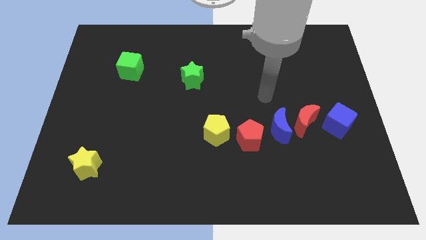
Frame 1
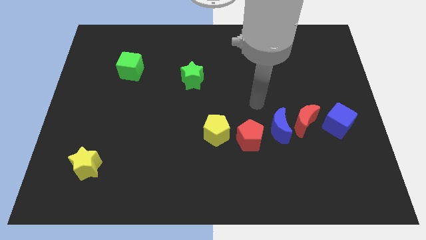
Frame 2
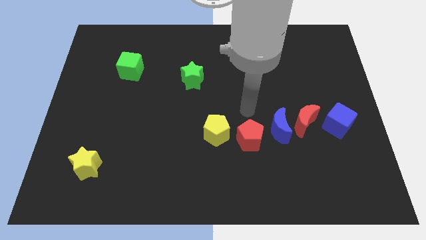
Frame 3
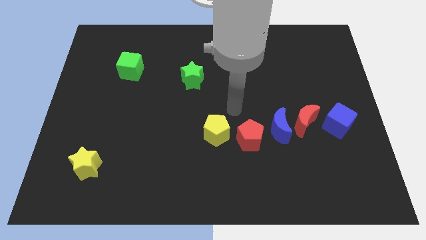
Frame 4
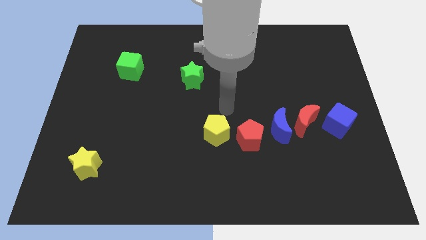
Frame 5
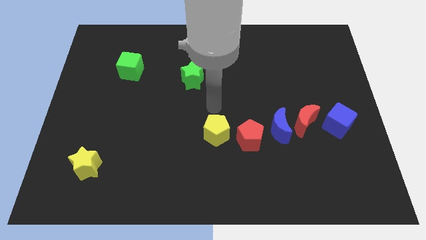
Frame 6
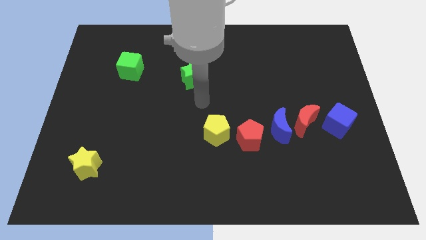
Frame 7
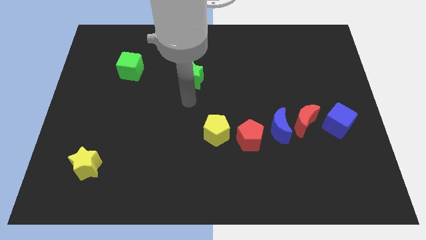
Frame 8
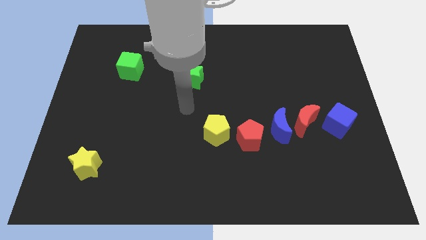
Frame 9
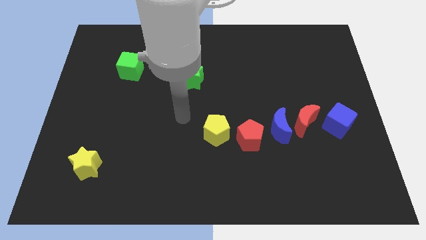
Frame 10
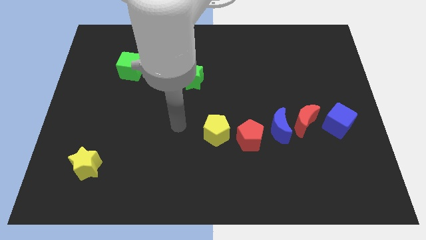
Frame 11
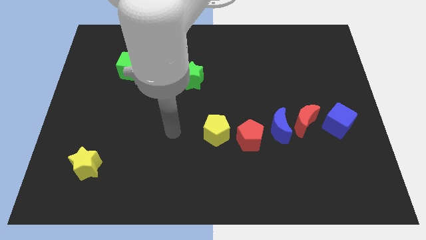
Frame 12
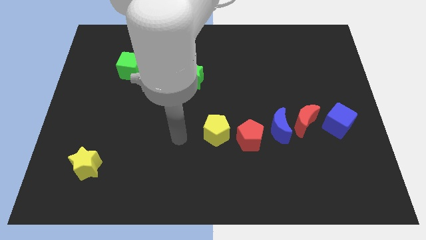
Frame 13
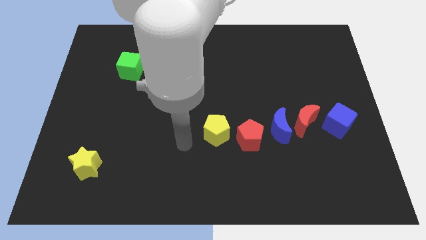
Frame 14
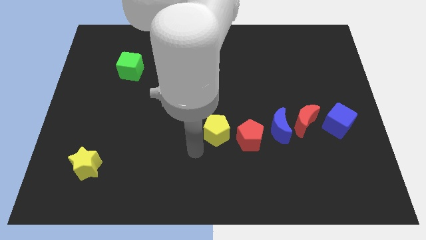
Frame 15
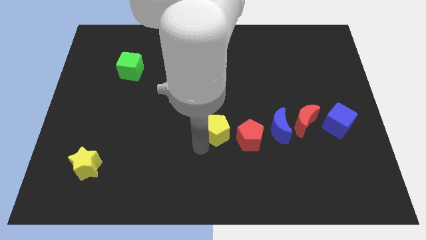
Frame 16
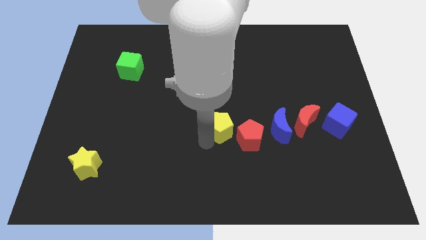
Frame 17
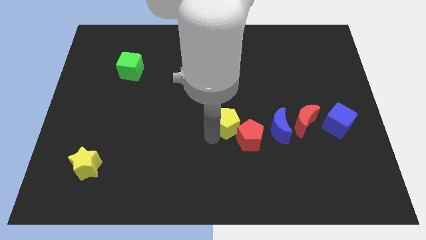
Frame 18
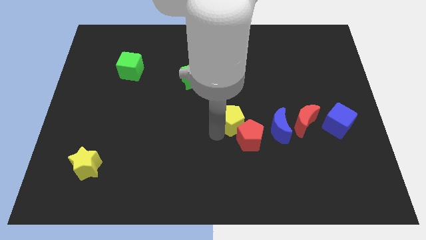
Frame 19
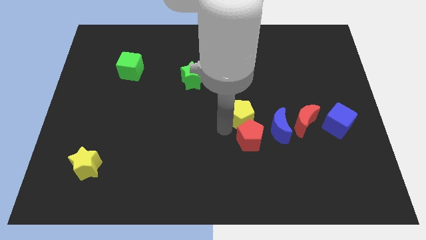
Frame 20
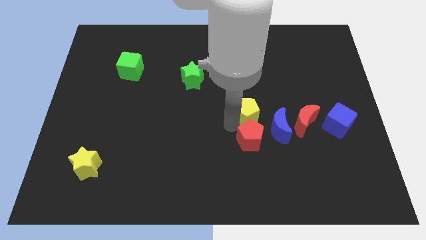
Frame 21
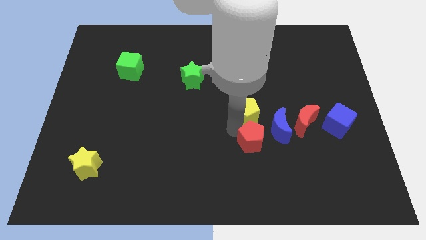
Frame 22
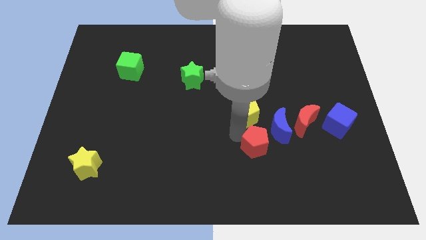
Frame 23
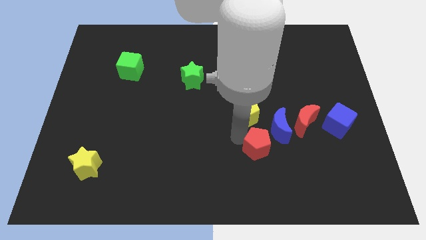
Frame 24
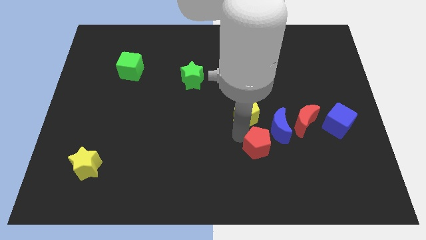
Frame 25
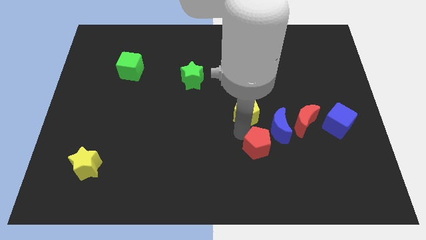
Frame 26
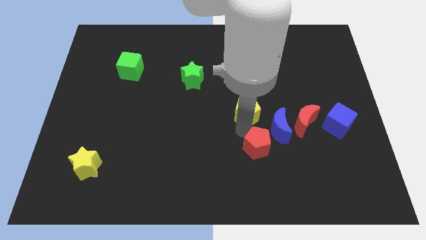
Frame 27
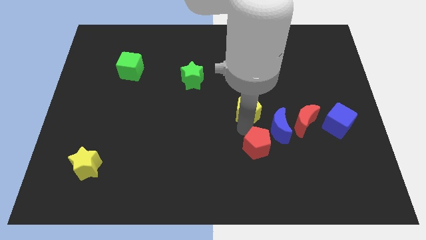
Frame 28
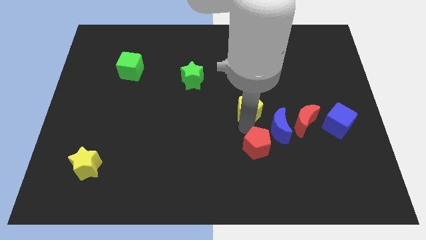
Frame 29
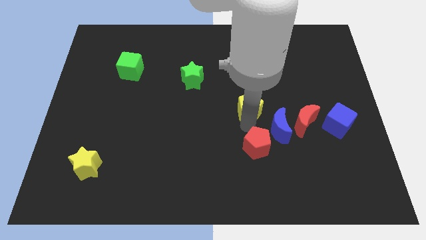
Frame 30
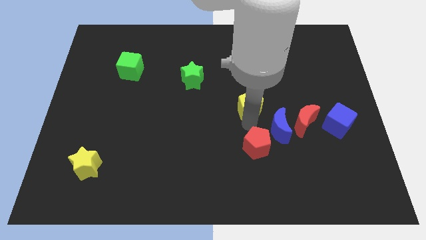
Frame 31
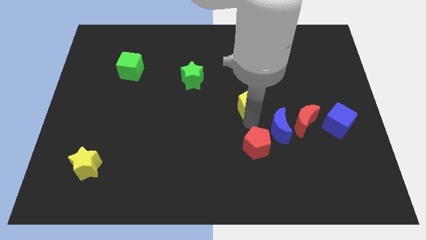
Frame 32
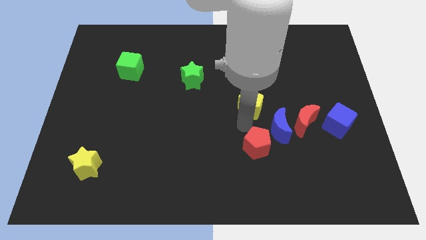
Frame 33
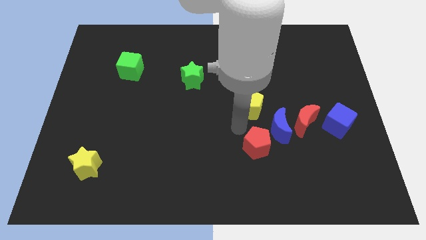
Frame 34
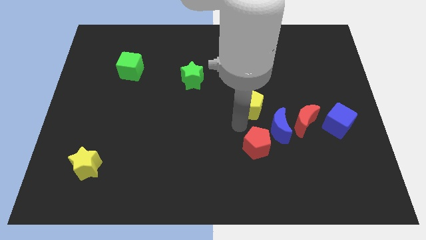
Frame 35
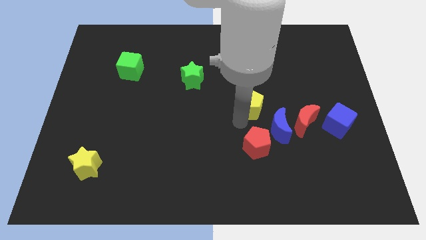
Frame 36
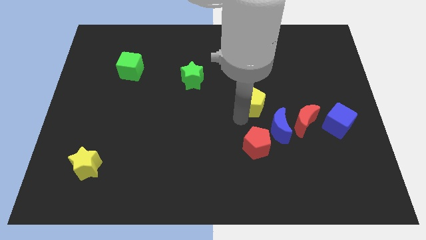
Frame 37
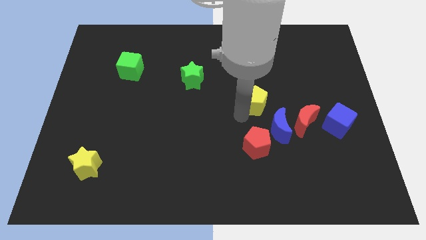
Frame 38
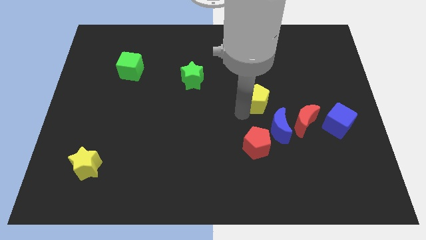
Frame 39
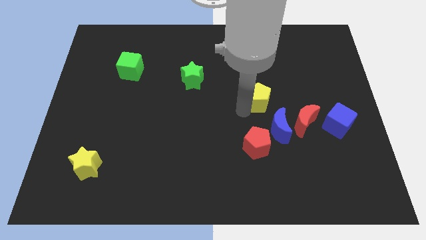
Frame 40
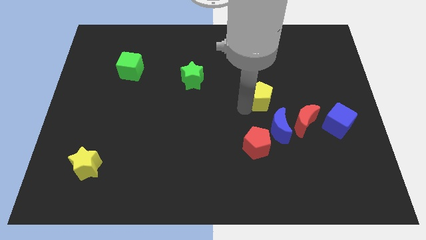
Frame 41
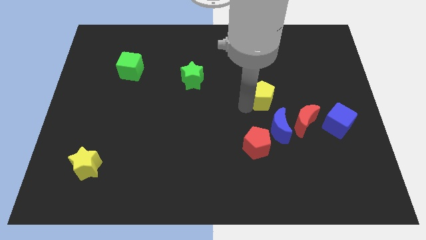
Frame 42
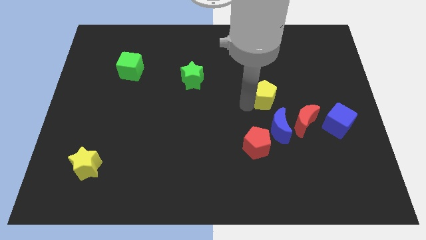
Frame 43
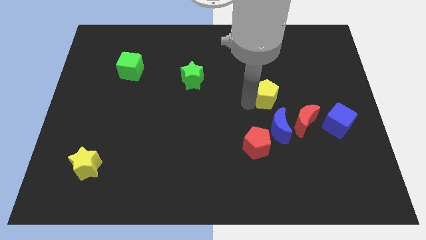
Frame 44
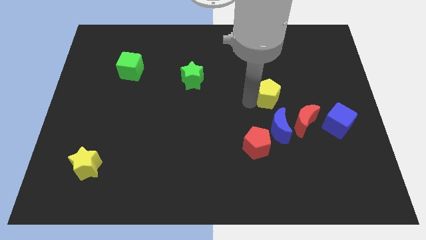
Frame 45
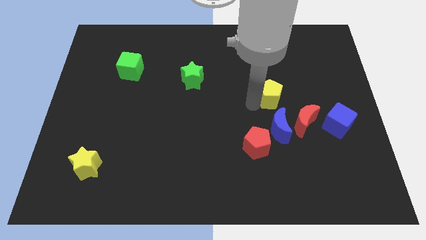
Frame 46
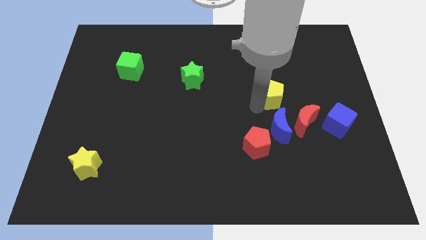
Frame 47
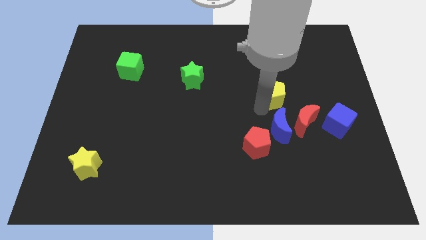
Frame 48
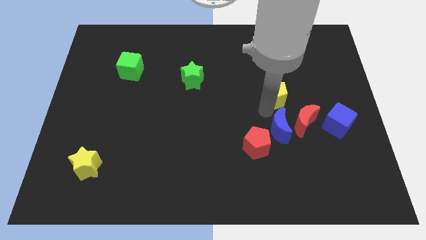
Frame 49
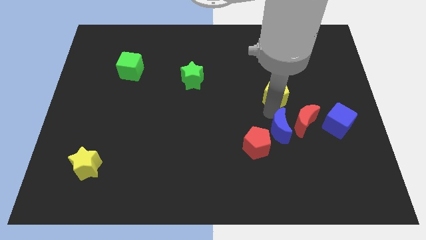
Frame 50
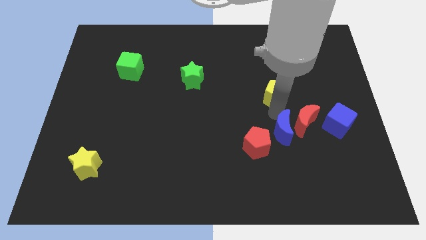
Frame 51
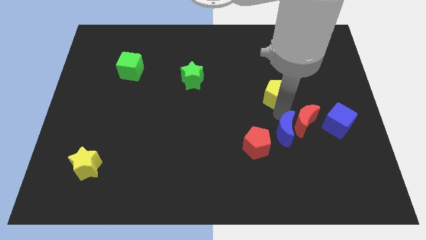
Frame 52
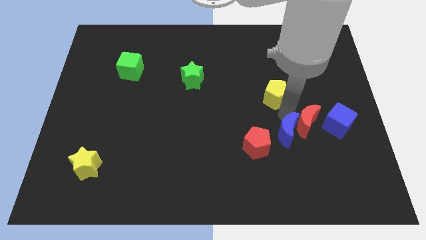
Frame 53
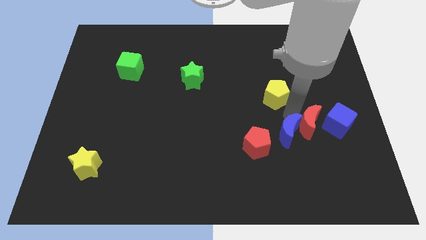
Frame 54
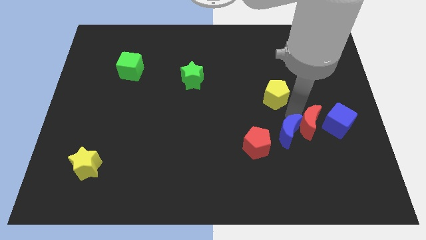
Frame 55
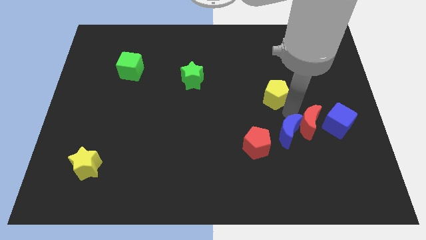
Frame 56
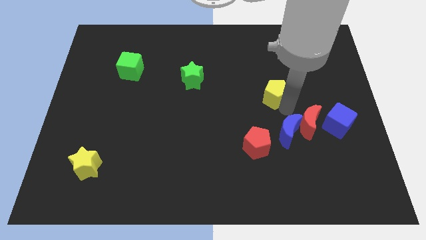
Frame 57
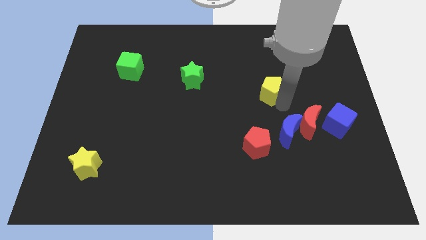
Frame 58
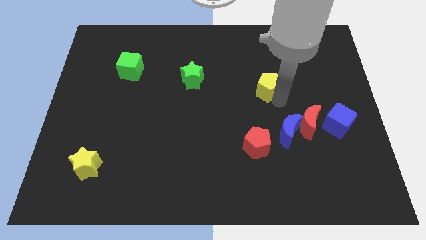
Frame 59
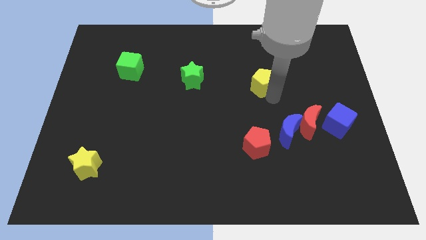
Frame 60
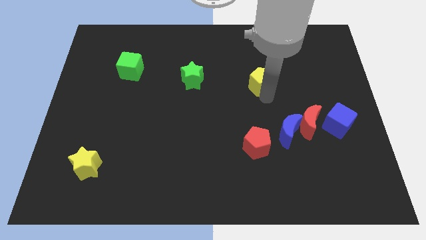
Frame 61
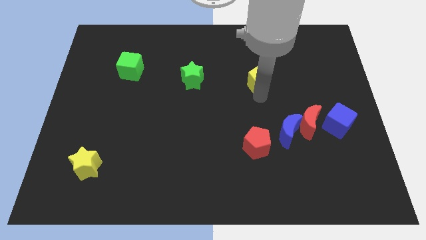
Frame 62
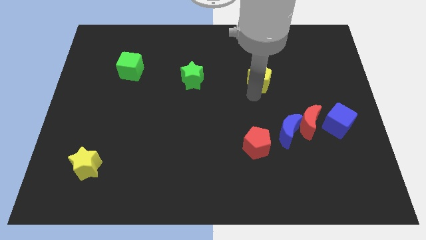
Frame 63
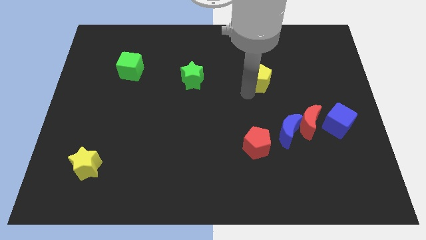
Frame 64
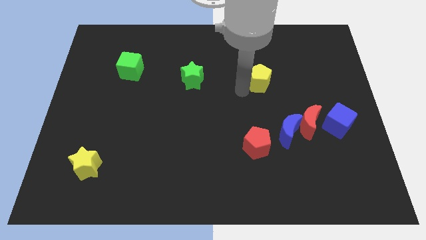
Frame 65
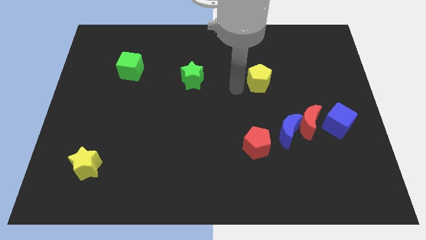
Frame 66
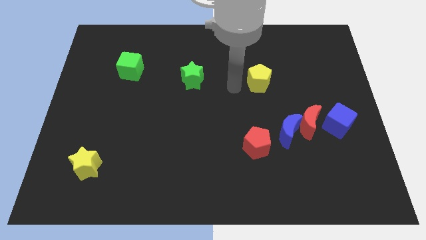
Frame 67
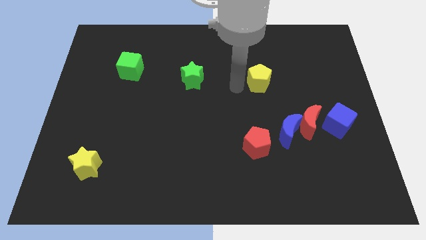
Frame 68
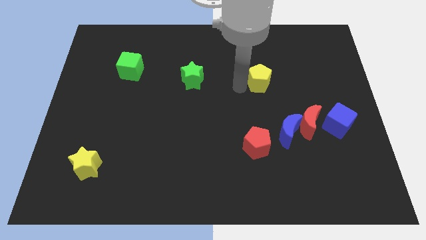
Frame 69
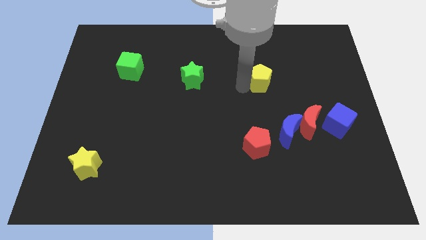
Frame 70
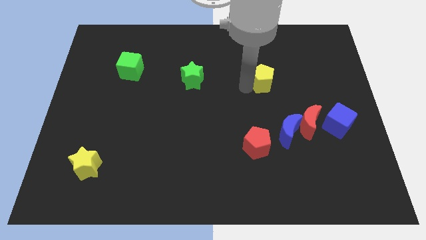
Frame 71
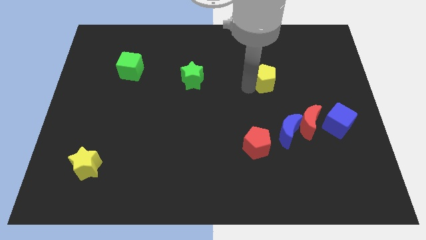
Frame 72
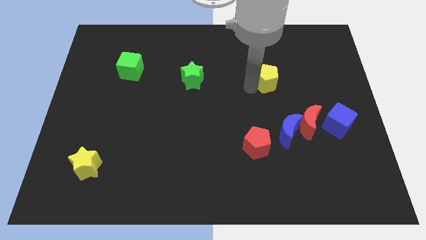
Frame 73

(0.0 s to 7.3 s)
push the yellow pentagon up and then to the right

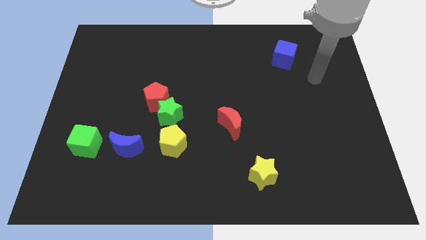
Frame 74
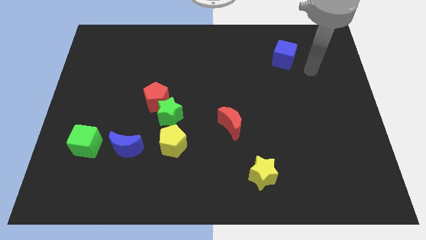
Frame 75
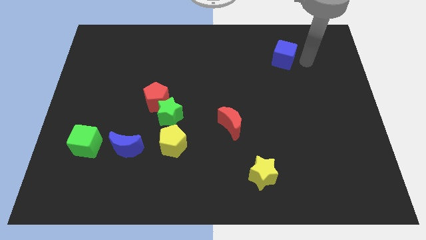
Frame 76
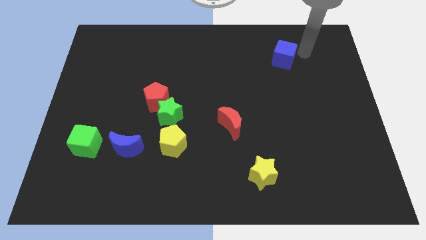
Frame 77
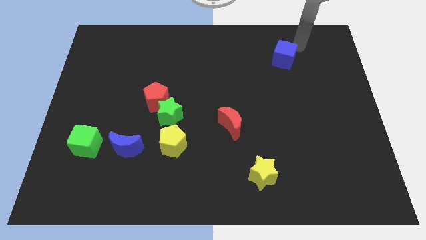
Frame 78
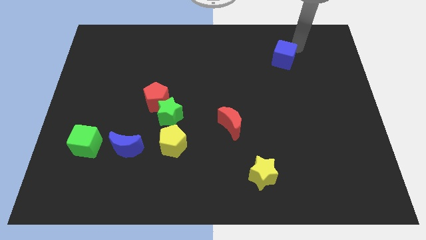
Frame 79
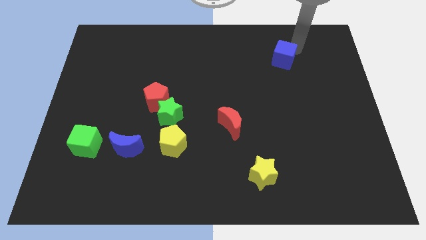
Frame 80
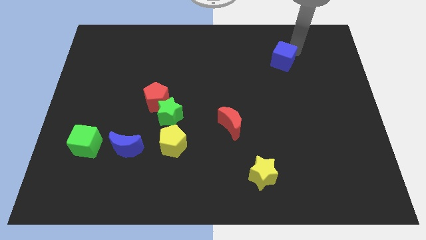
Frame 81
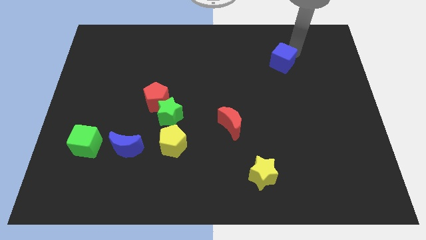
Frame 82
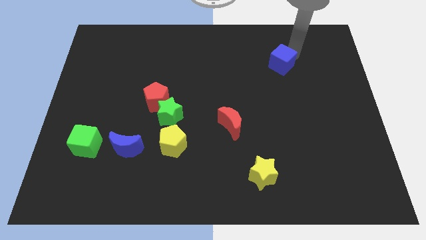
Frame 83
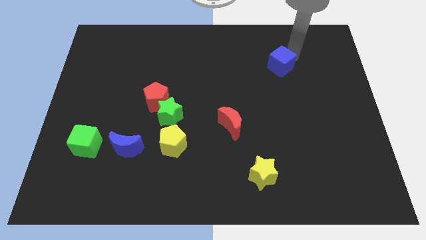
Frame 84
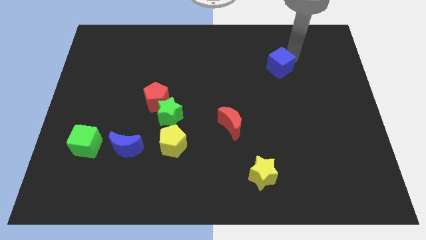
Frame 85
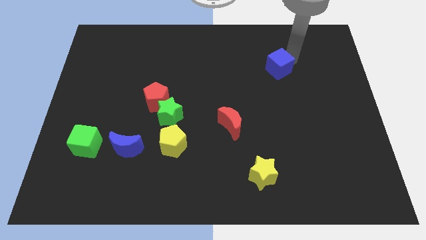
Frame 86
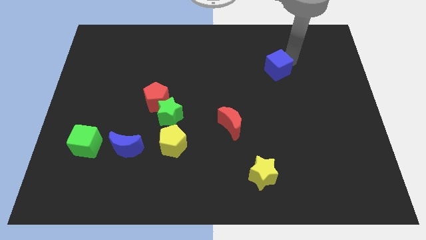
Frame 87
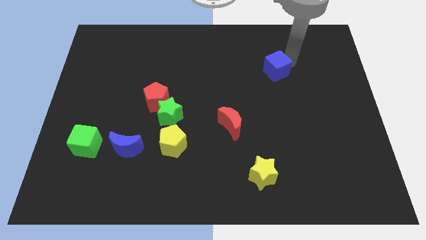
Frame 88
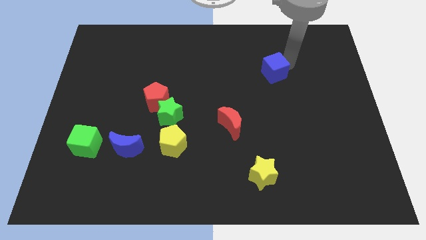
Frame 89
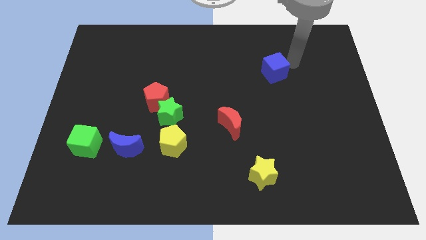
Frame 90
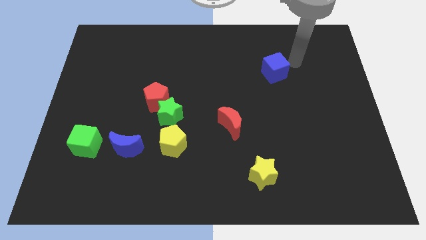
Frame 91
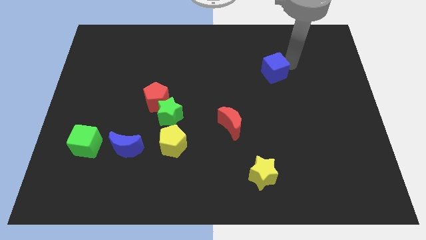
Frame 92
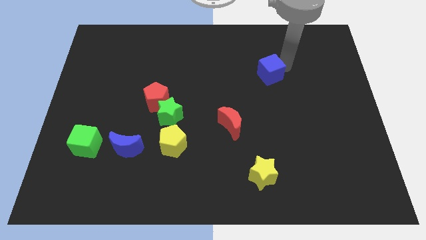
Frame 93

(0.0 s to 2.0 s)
move the blue cube downwards and left diagonally a bit
